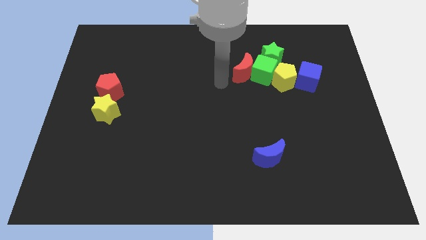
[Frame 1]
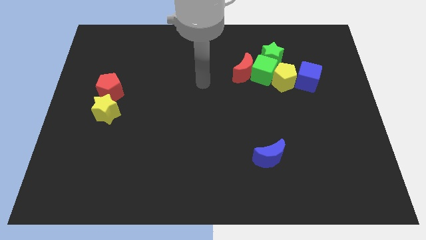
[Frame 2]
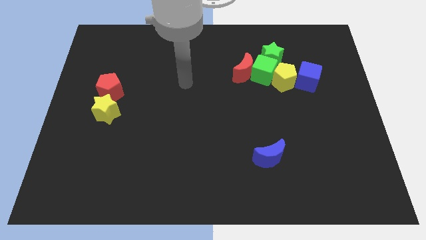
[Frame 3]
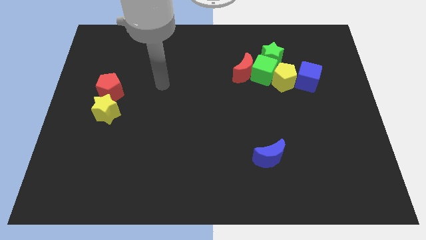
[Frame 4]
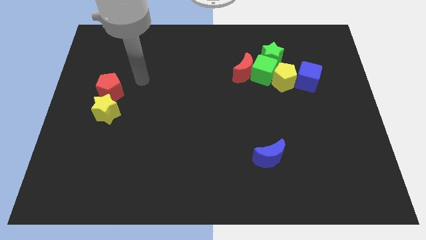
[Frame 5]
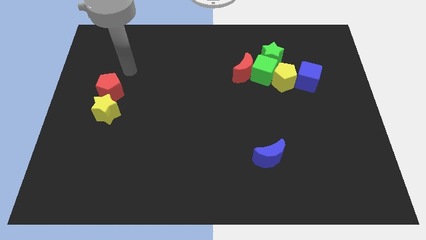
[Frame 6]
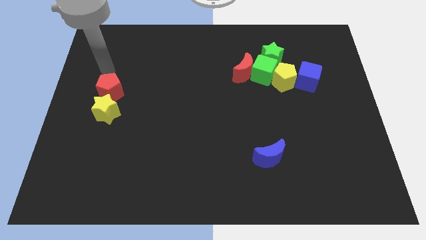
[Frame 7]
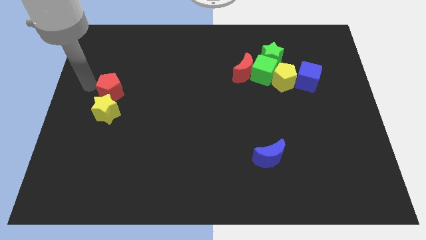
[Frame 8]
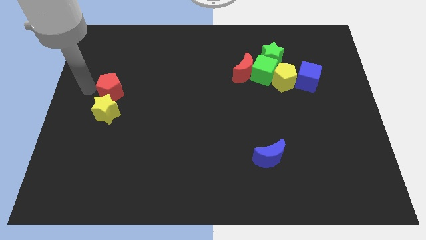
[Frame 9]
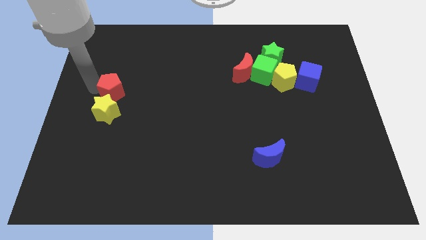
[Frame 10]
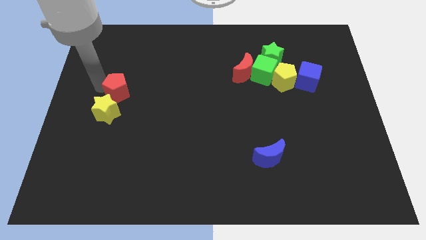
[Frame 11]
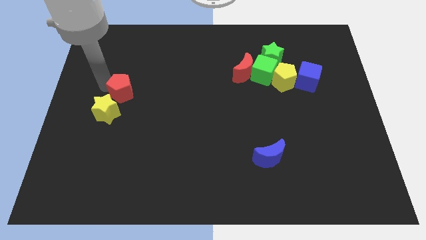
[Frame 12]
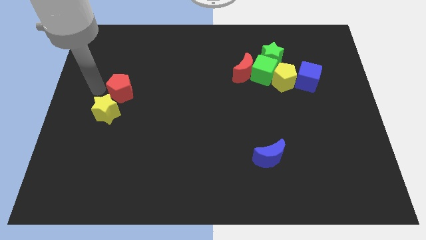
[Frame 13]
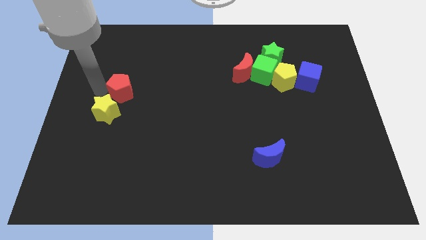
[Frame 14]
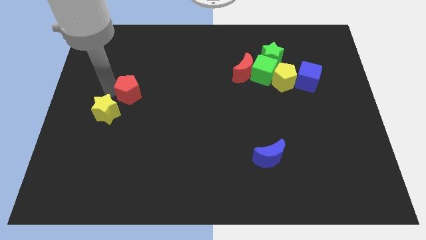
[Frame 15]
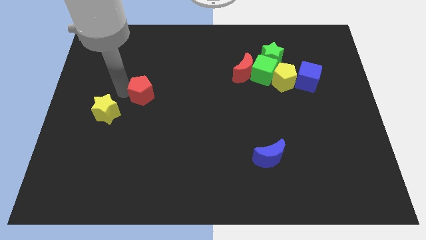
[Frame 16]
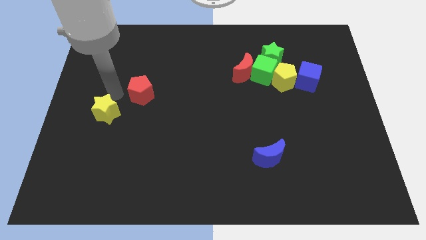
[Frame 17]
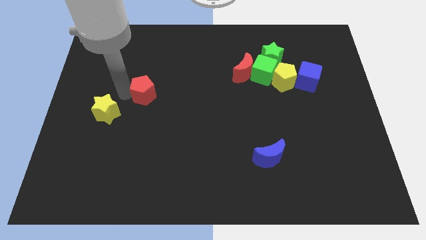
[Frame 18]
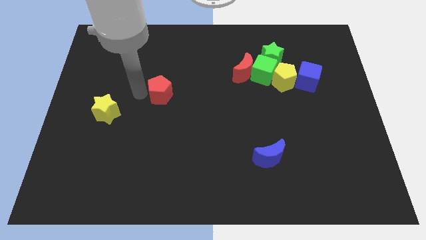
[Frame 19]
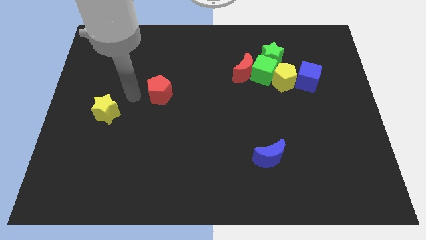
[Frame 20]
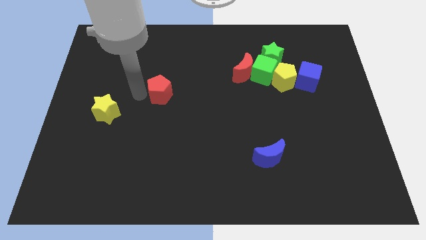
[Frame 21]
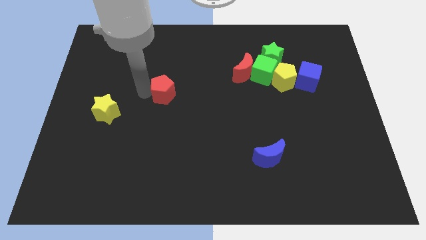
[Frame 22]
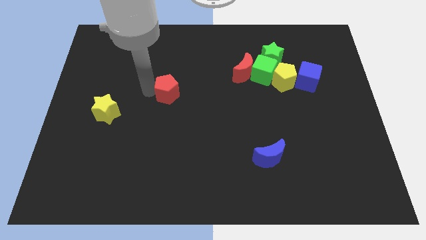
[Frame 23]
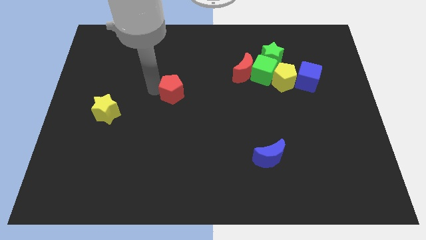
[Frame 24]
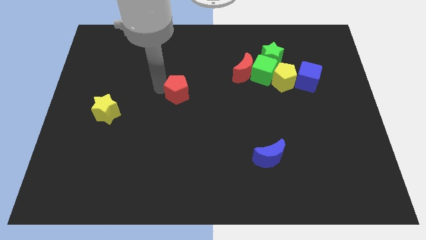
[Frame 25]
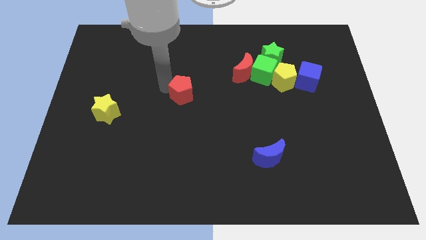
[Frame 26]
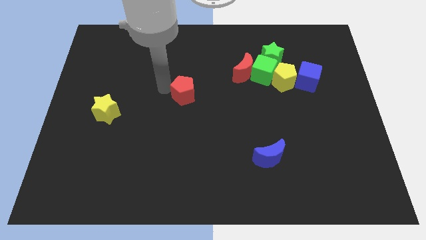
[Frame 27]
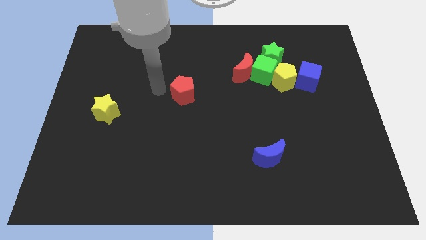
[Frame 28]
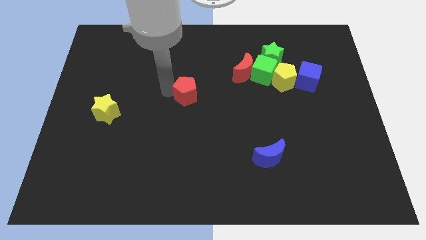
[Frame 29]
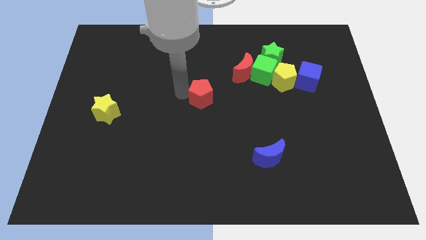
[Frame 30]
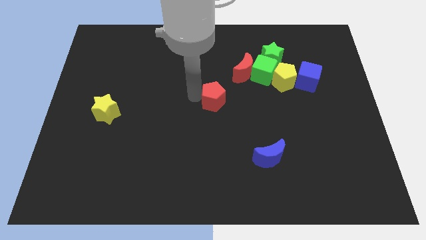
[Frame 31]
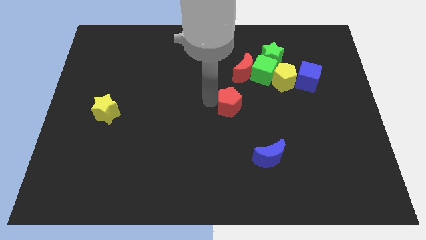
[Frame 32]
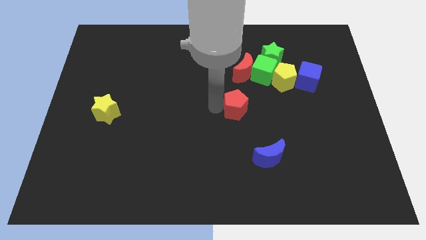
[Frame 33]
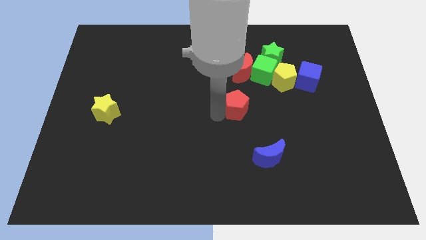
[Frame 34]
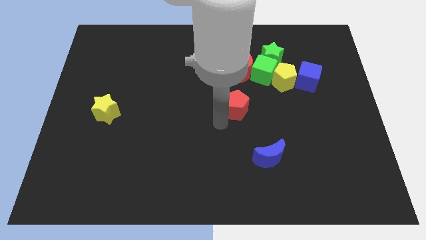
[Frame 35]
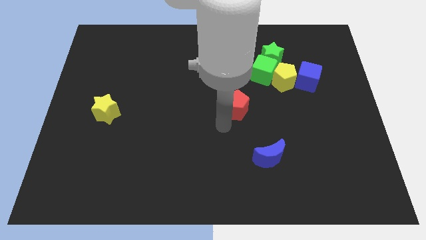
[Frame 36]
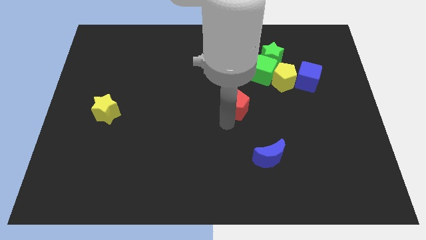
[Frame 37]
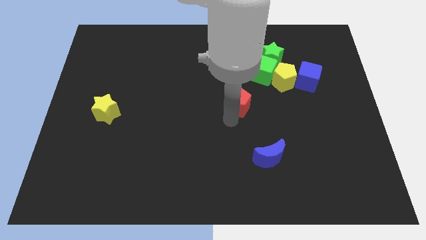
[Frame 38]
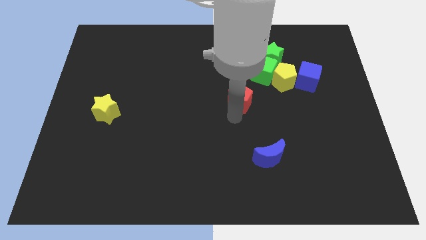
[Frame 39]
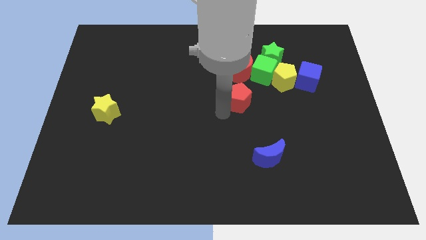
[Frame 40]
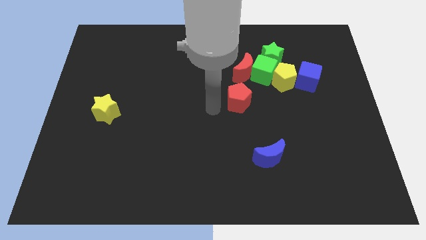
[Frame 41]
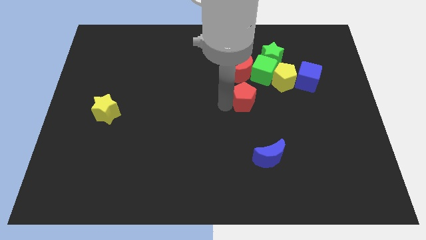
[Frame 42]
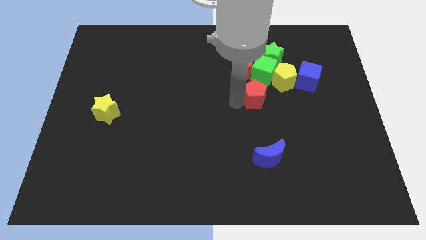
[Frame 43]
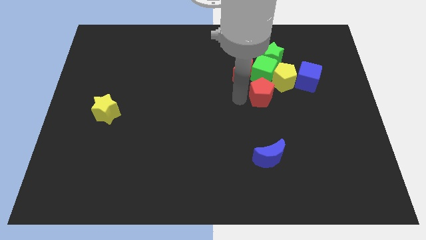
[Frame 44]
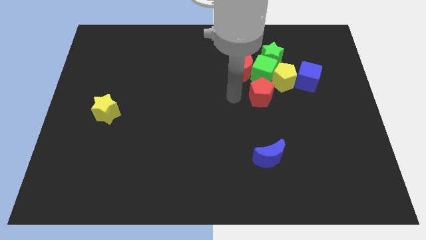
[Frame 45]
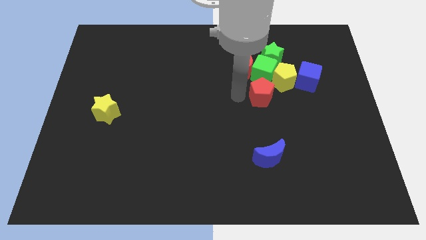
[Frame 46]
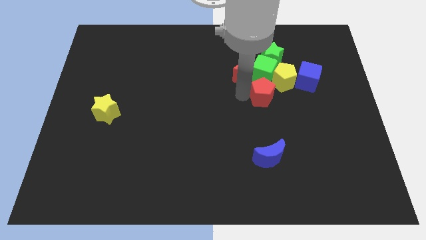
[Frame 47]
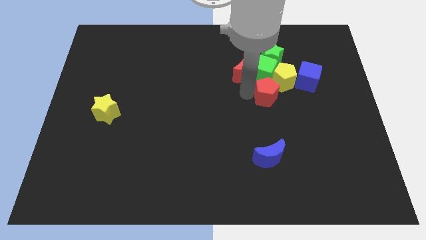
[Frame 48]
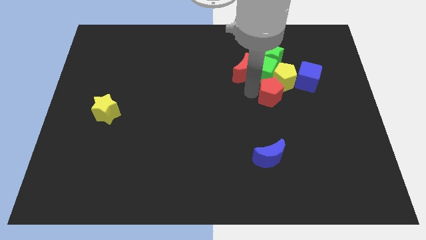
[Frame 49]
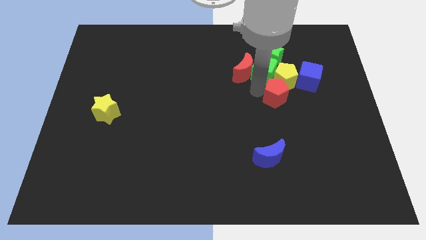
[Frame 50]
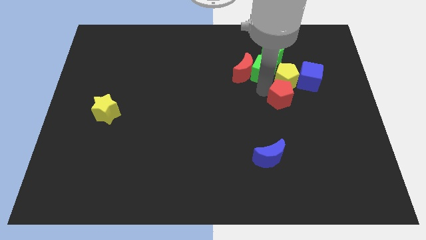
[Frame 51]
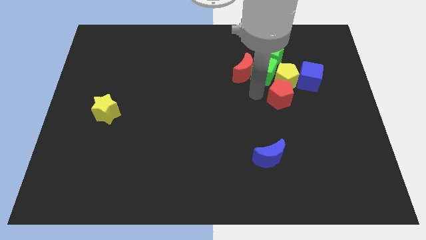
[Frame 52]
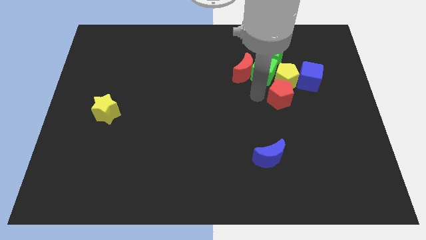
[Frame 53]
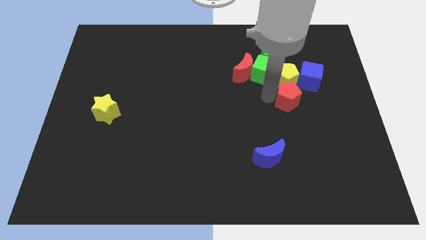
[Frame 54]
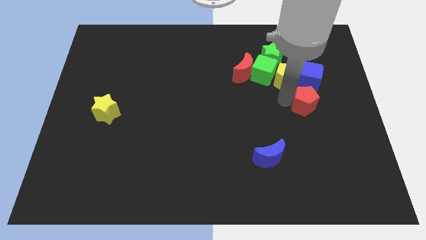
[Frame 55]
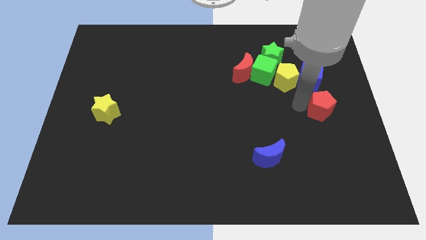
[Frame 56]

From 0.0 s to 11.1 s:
push the red pentagon to the center right

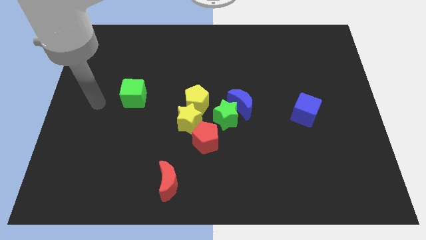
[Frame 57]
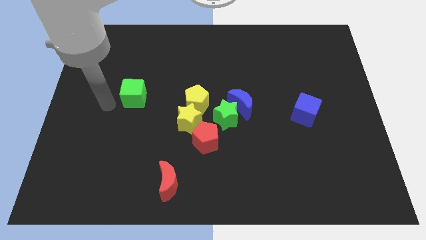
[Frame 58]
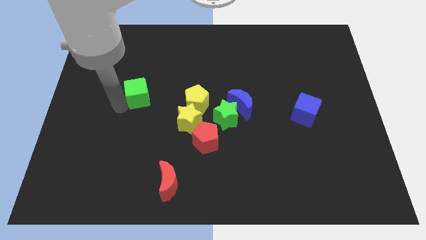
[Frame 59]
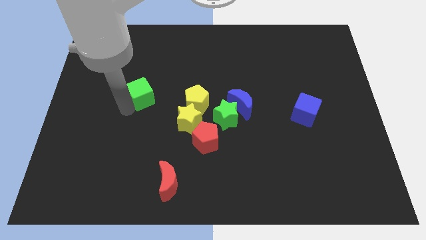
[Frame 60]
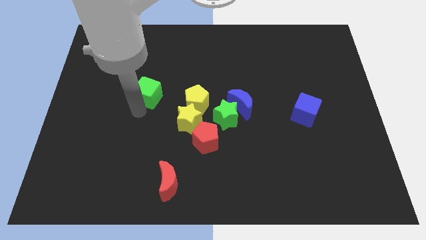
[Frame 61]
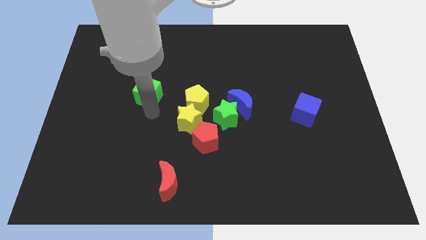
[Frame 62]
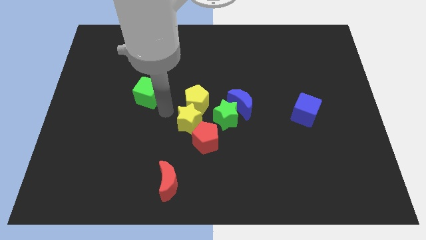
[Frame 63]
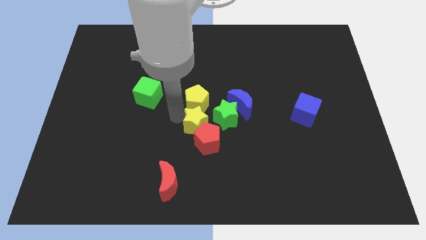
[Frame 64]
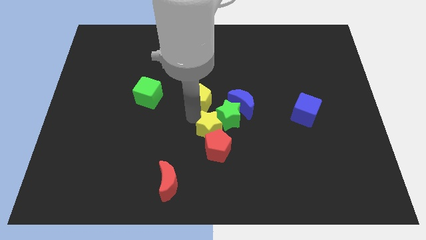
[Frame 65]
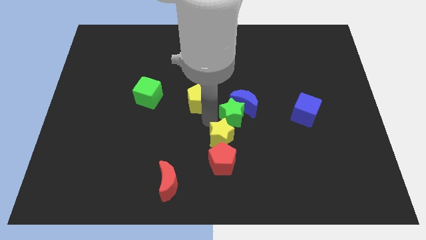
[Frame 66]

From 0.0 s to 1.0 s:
move the red pentagon to the bottom side

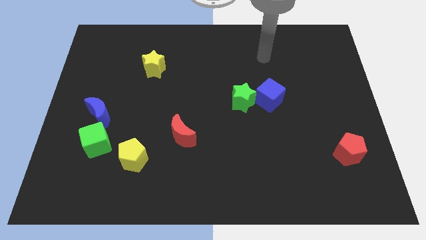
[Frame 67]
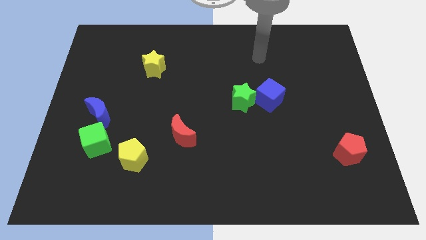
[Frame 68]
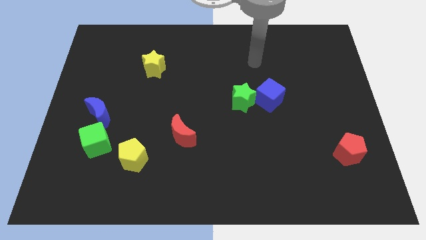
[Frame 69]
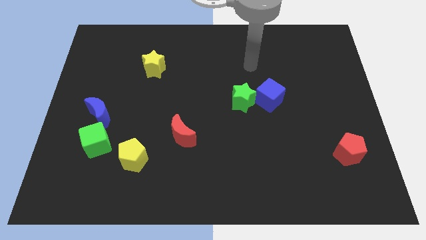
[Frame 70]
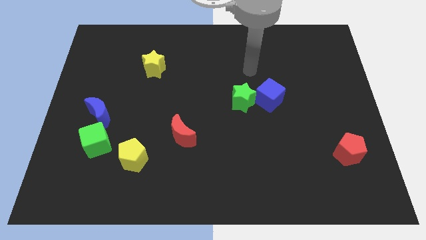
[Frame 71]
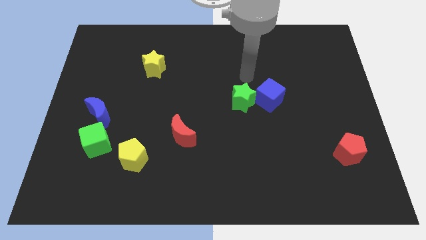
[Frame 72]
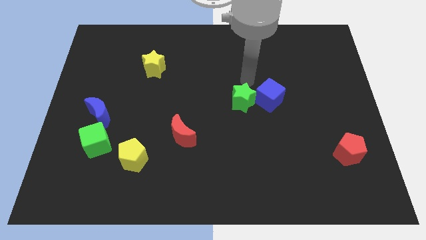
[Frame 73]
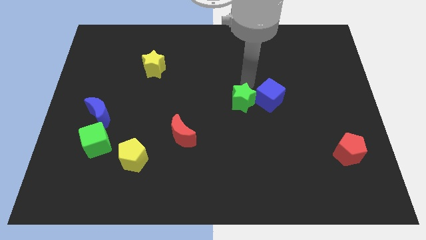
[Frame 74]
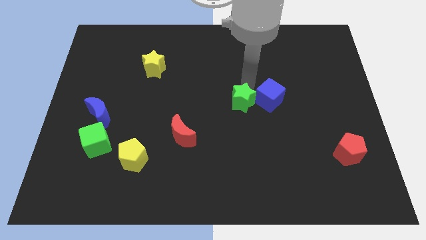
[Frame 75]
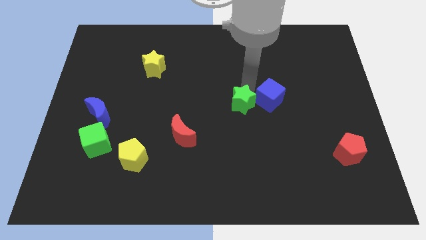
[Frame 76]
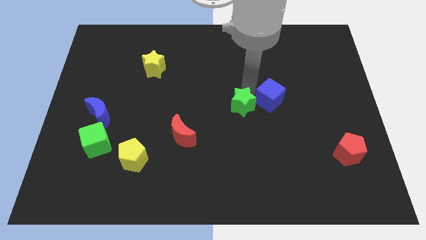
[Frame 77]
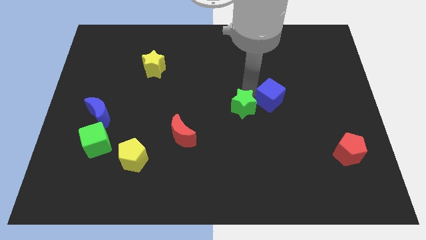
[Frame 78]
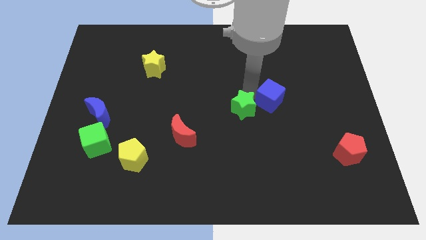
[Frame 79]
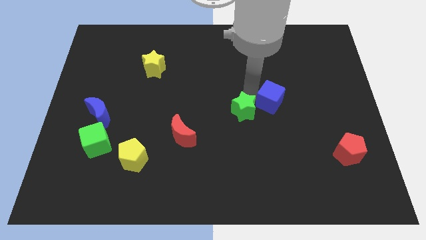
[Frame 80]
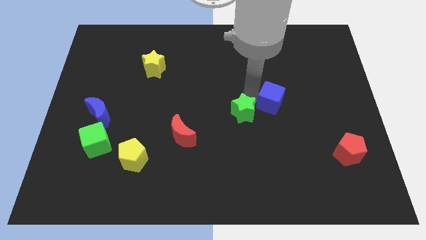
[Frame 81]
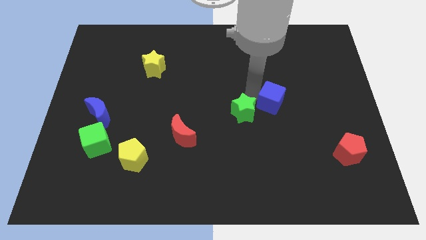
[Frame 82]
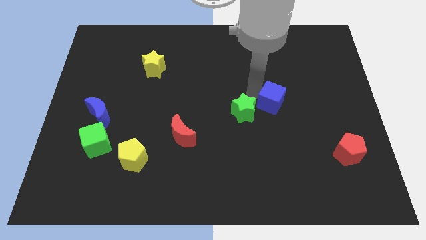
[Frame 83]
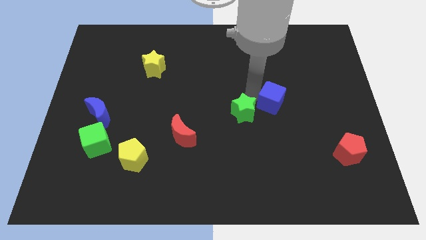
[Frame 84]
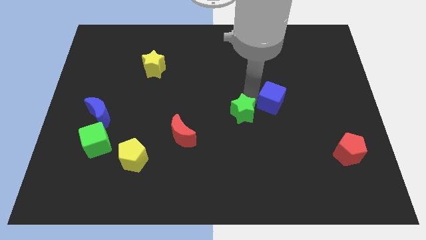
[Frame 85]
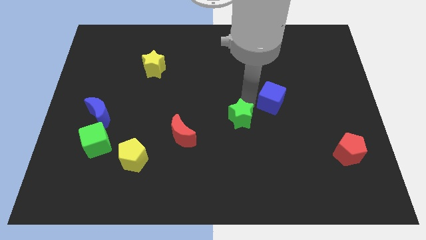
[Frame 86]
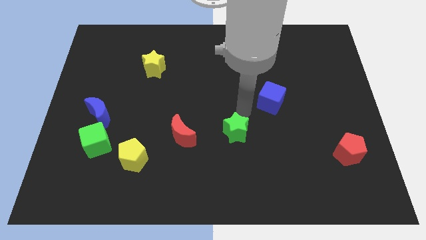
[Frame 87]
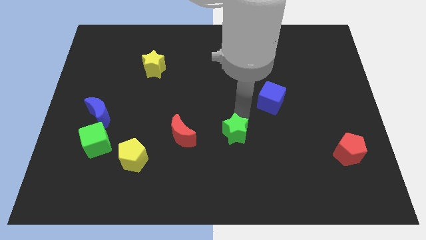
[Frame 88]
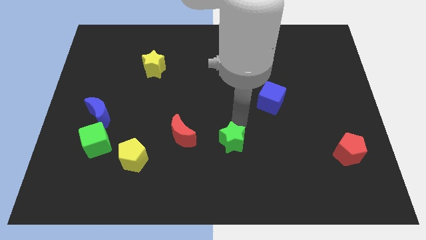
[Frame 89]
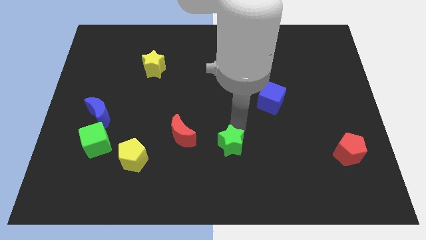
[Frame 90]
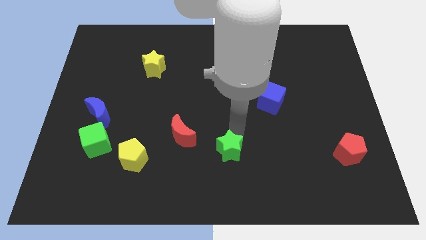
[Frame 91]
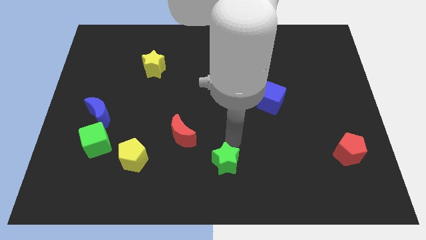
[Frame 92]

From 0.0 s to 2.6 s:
move the green star to the bottom
